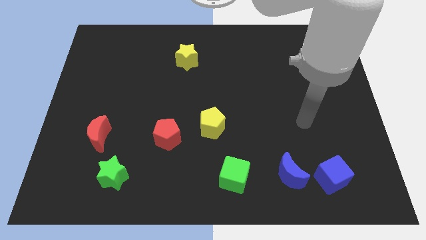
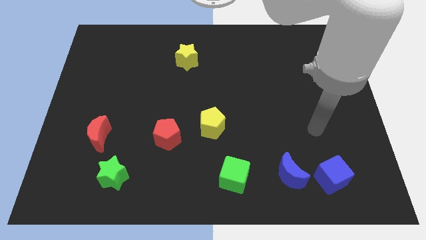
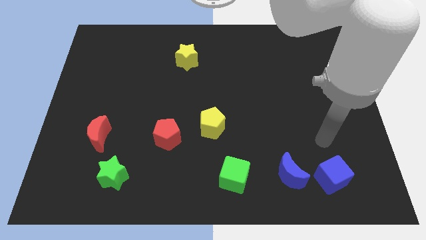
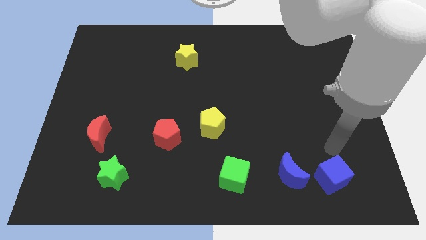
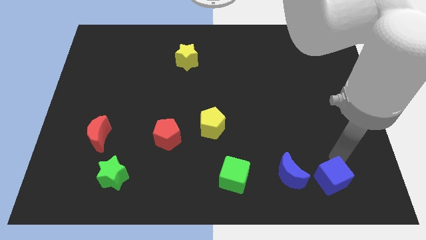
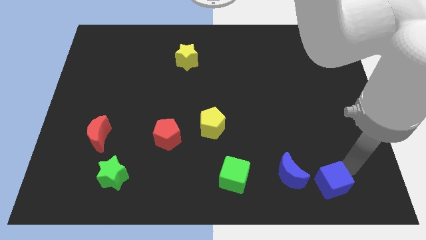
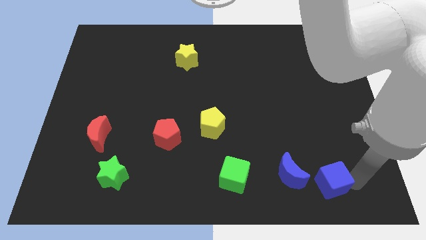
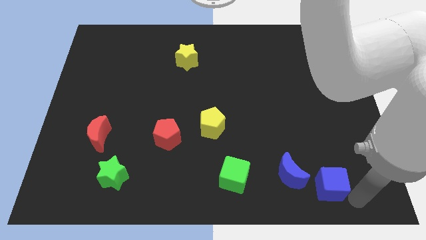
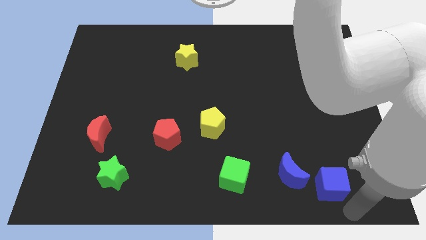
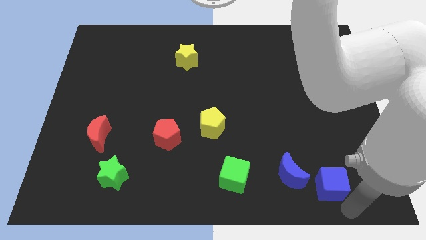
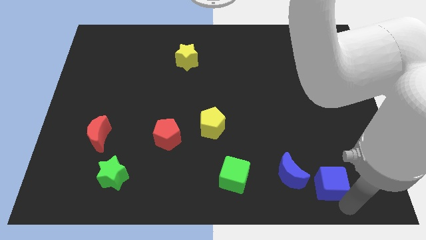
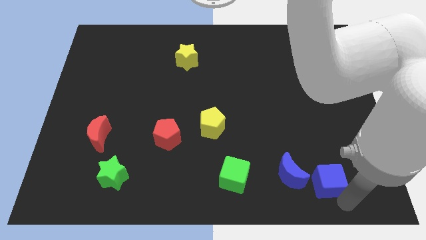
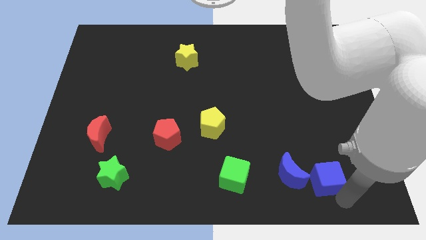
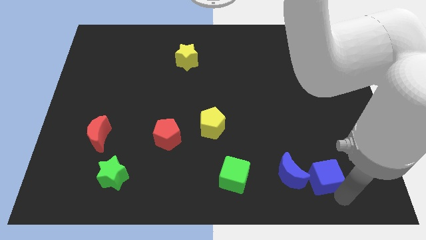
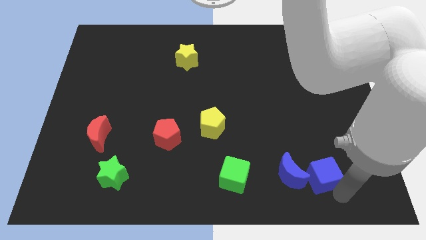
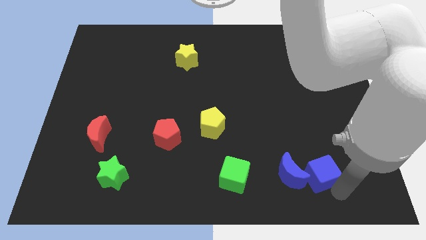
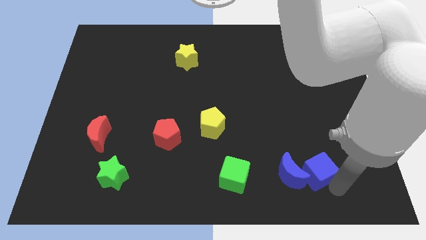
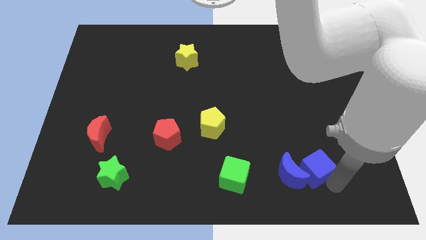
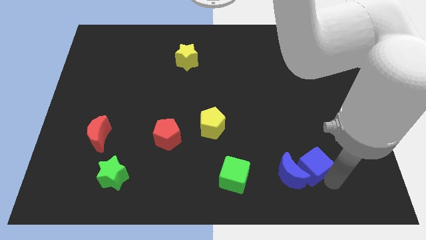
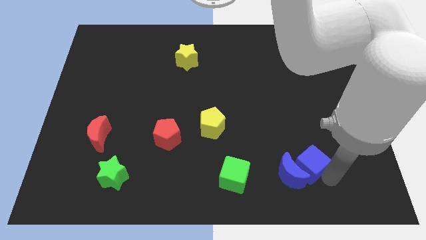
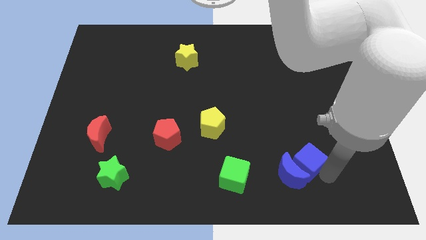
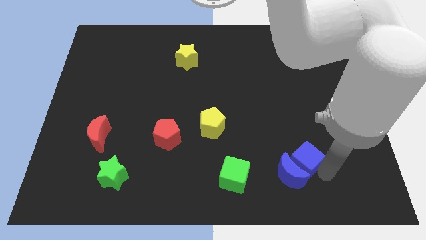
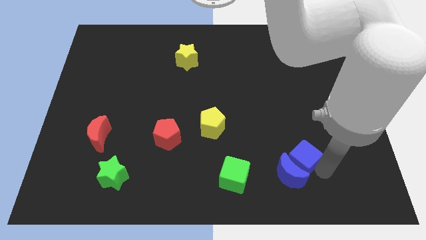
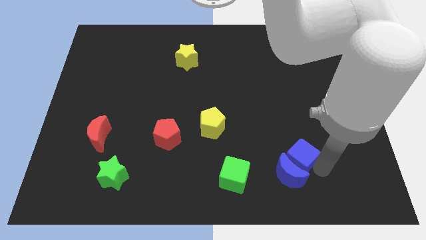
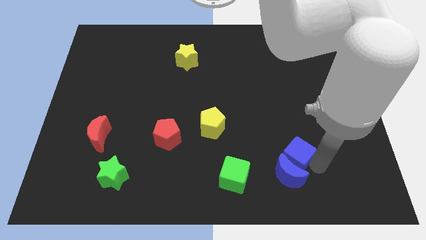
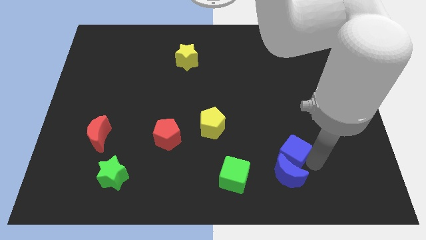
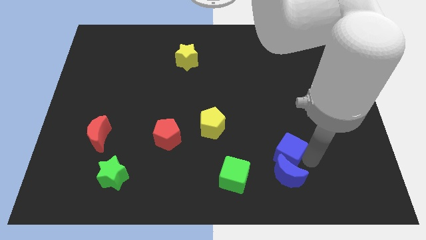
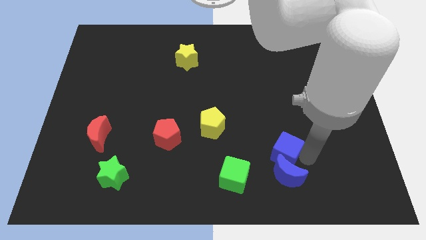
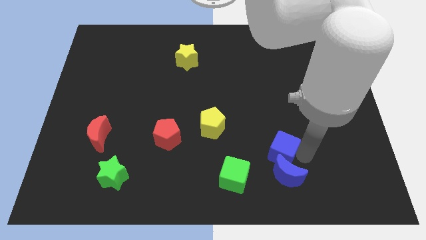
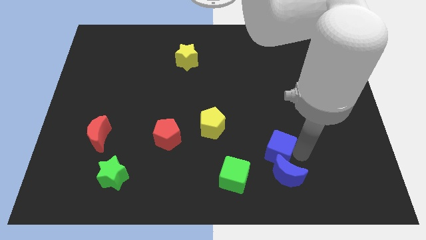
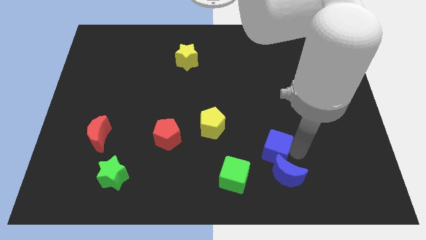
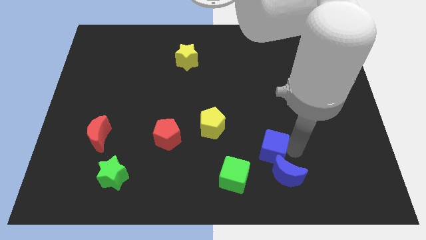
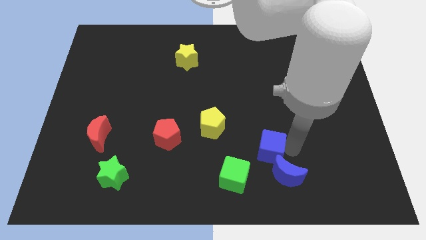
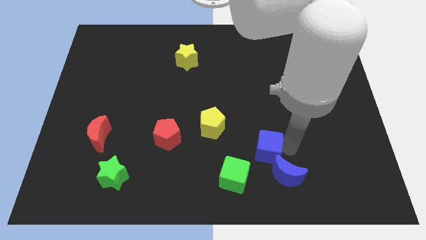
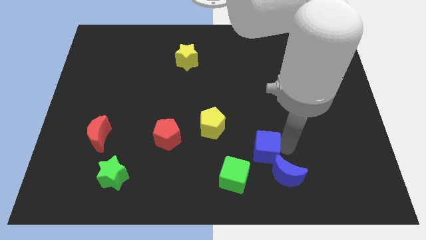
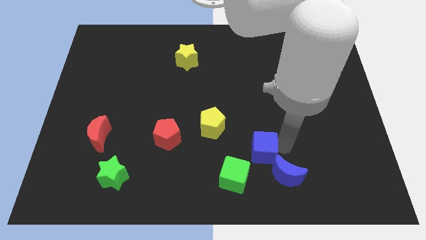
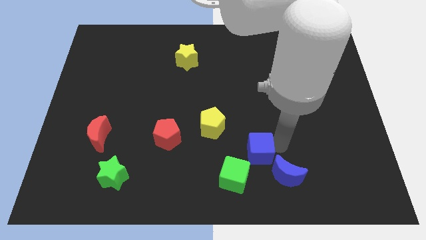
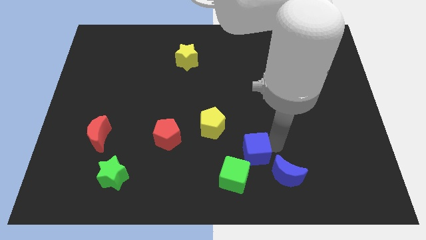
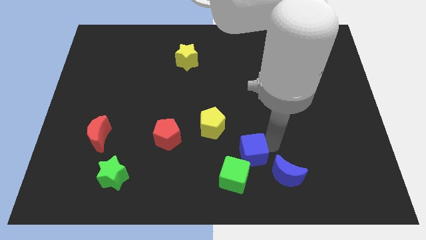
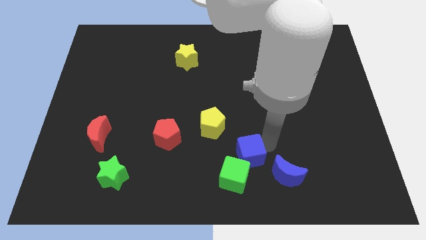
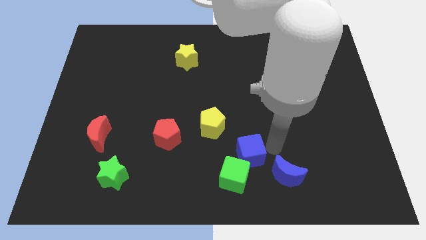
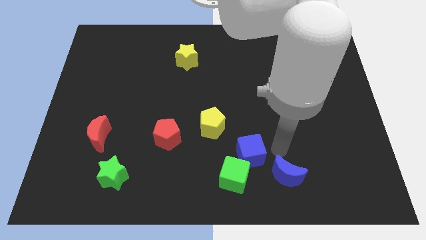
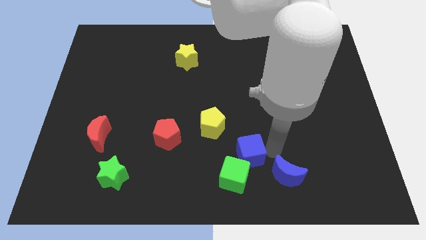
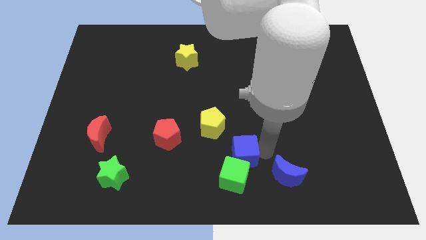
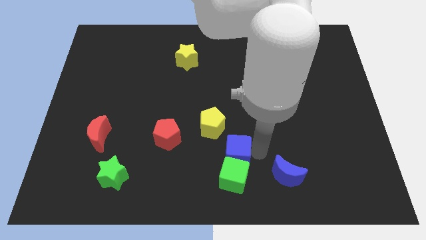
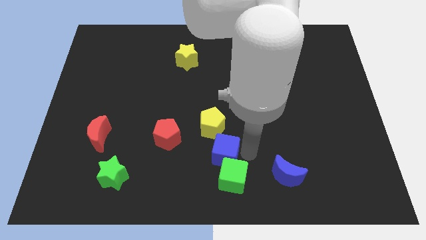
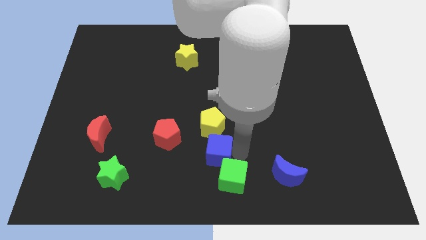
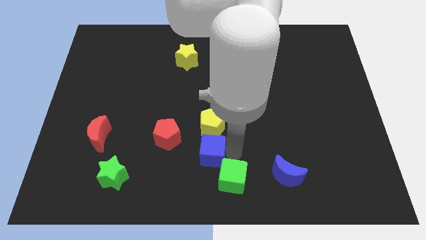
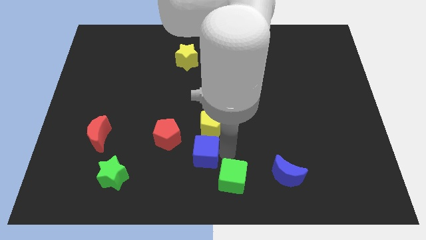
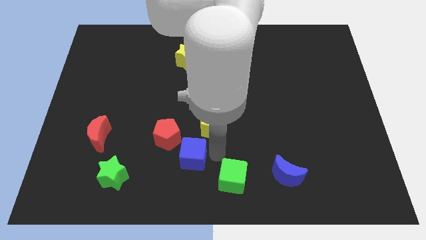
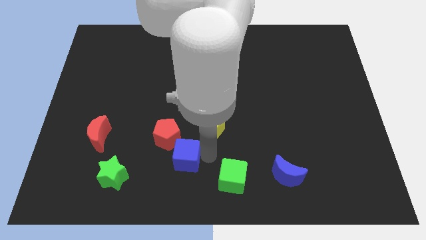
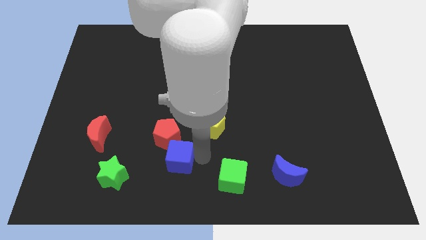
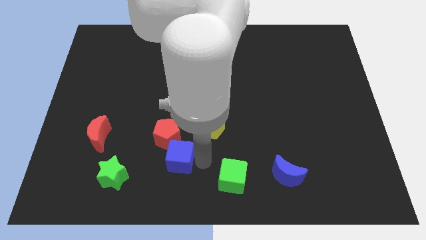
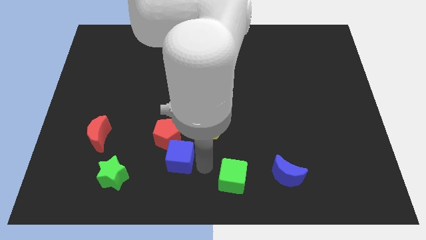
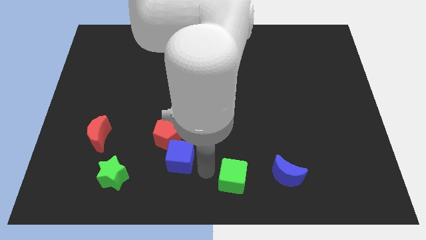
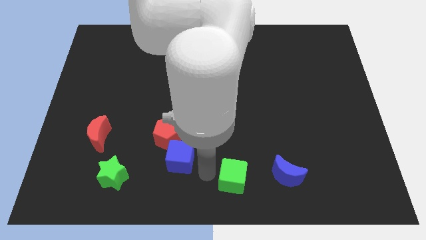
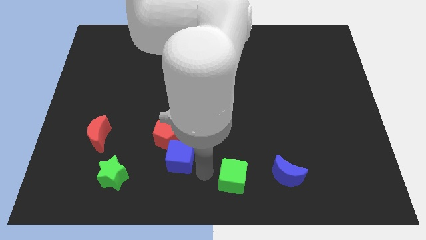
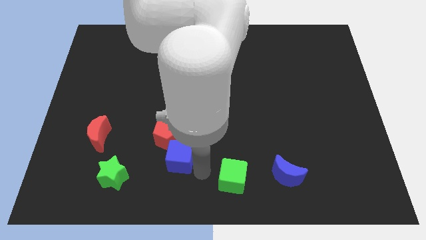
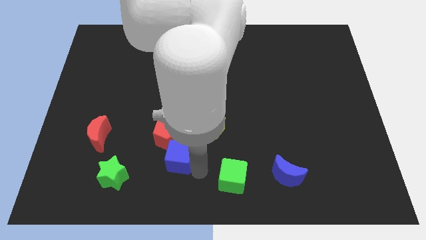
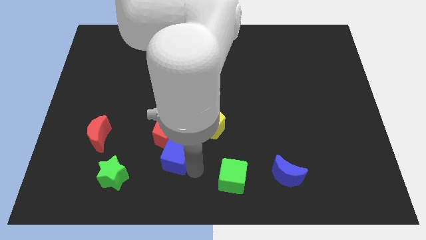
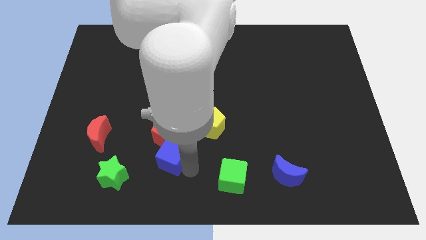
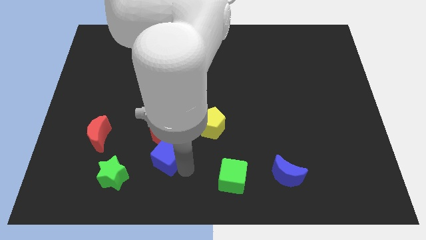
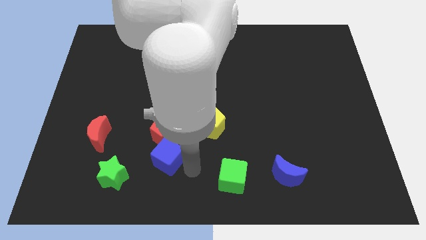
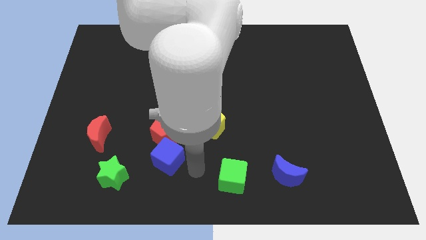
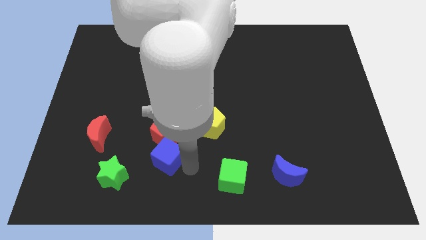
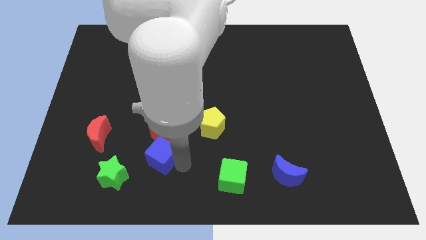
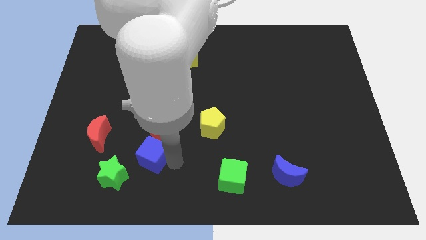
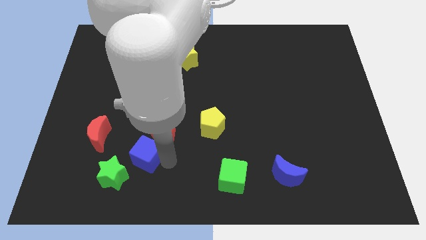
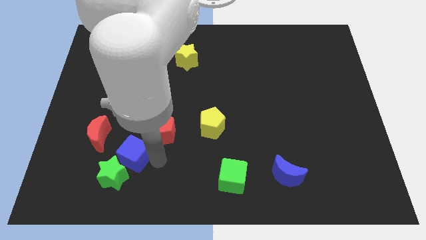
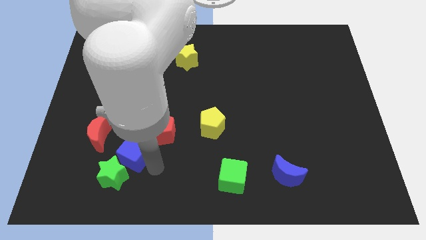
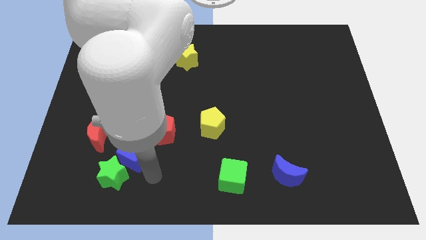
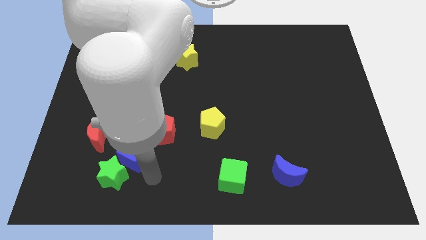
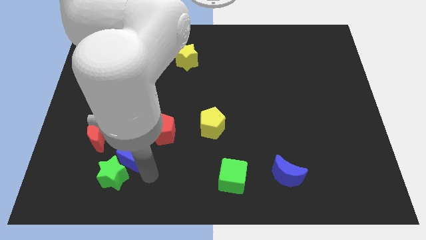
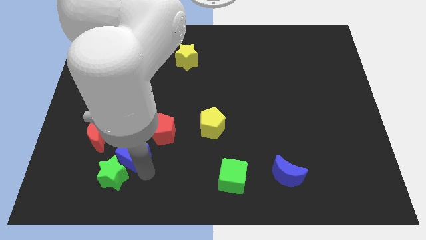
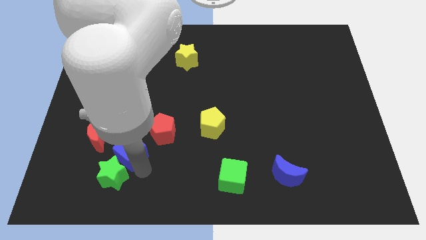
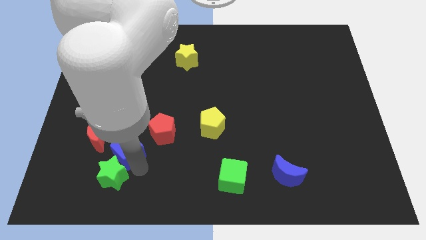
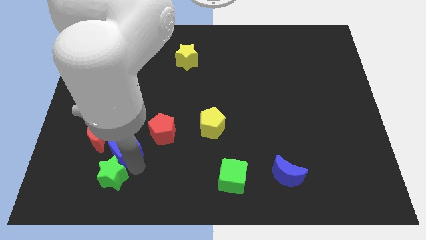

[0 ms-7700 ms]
push the blue cube to the left of the red pentagon
